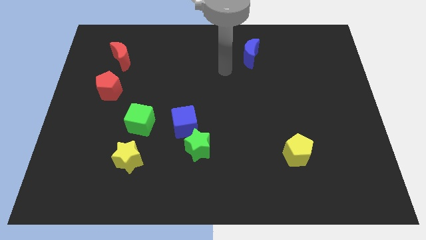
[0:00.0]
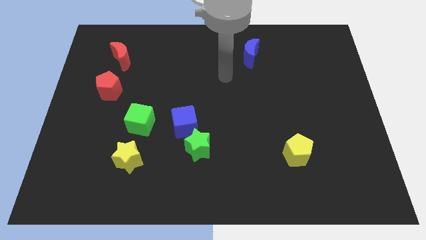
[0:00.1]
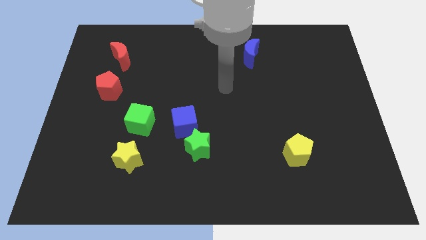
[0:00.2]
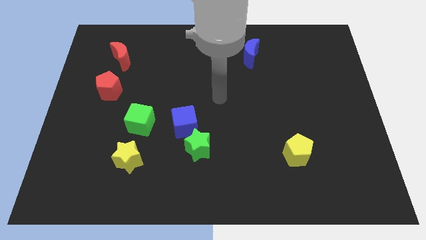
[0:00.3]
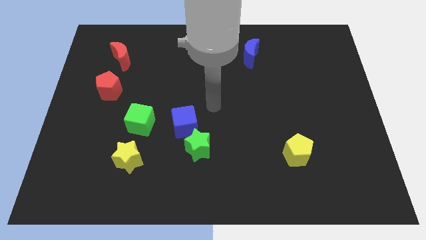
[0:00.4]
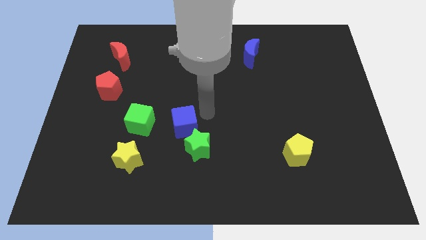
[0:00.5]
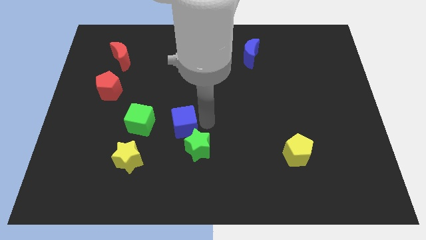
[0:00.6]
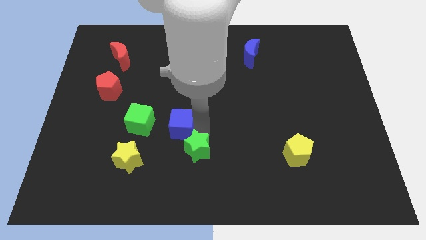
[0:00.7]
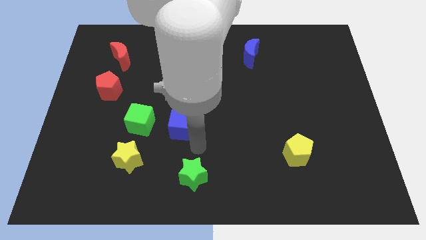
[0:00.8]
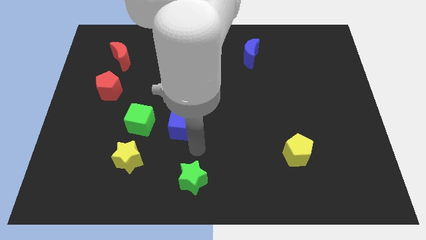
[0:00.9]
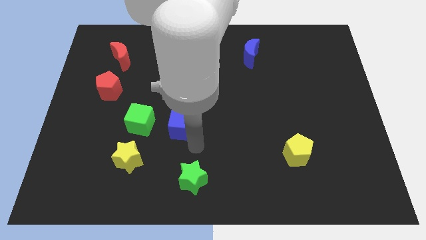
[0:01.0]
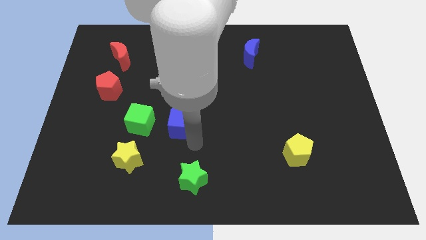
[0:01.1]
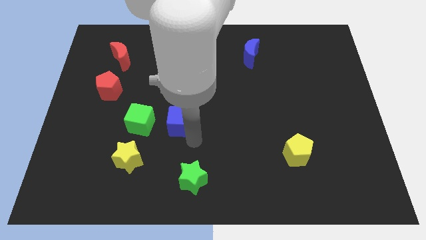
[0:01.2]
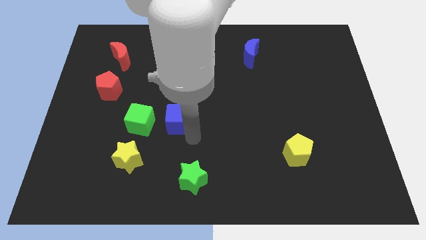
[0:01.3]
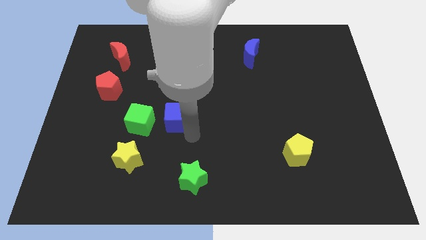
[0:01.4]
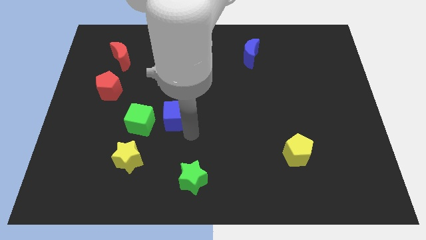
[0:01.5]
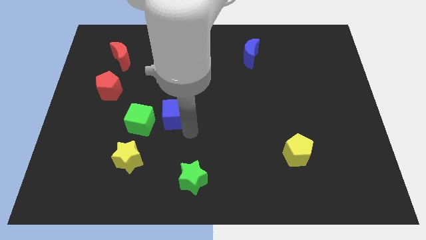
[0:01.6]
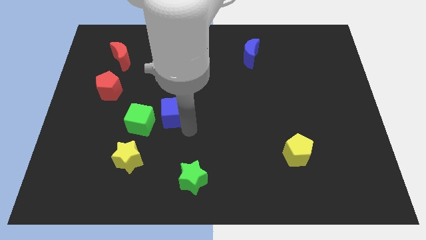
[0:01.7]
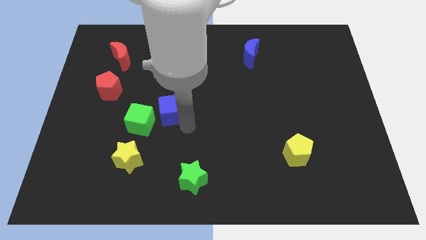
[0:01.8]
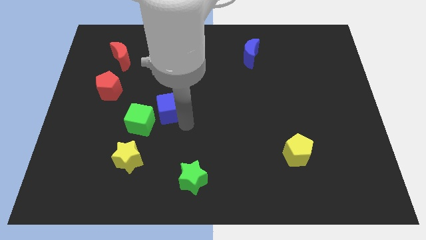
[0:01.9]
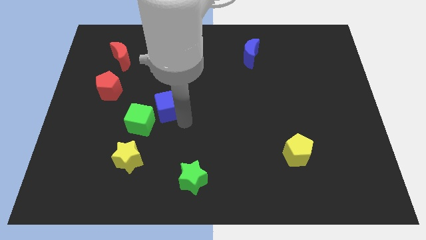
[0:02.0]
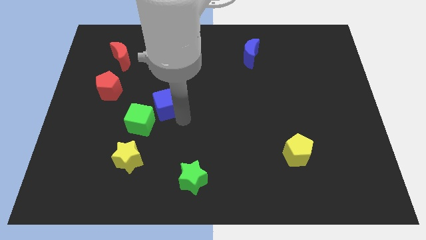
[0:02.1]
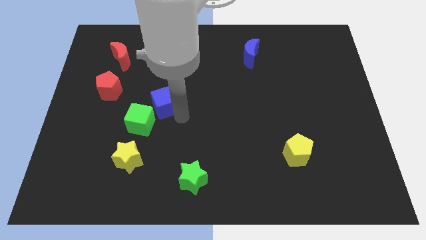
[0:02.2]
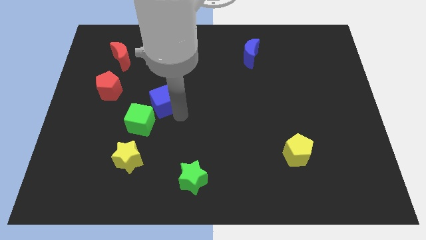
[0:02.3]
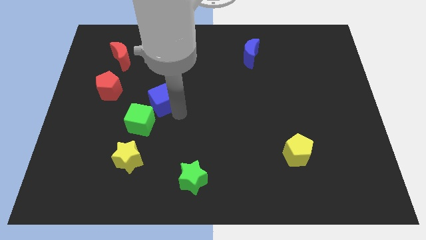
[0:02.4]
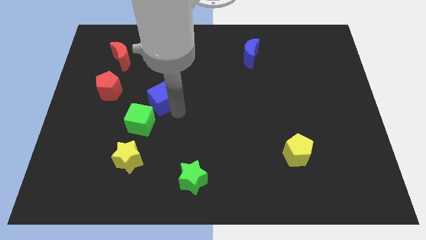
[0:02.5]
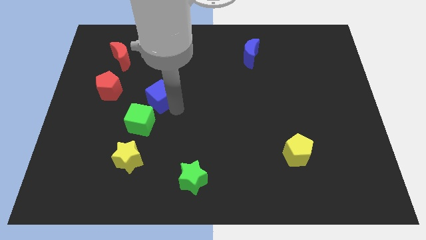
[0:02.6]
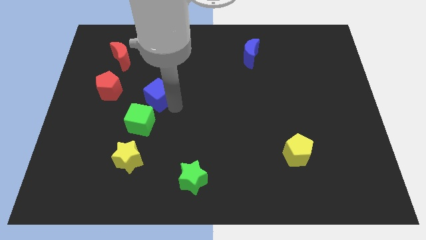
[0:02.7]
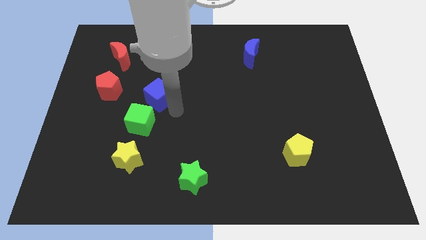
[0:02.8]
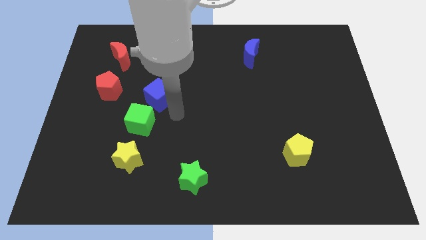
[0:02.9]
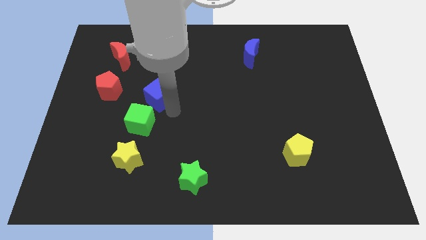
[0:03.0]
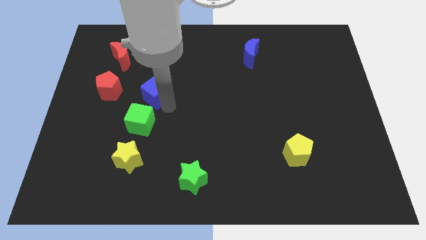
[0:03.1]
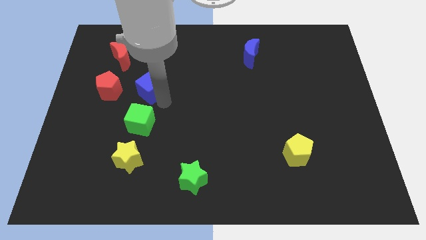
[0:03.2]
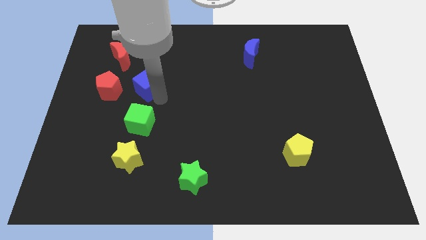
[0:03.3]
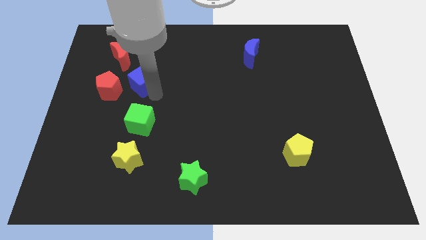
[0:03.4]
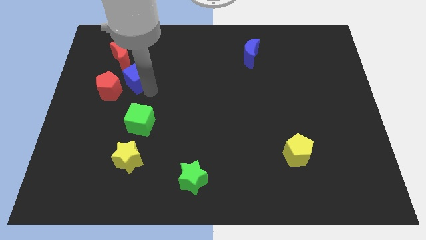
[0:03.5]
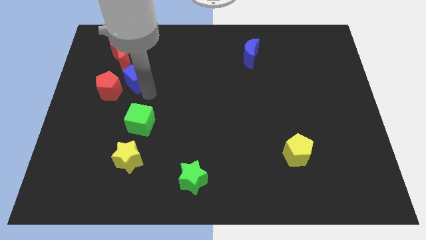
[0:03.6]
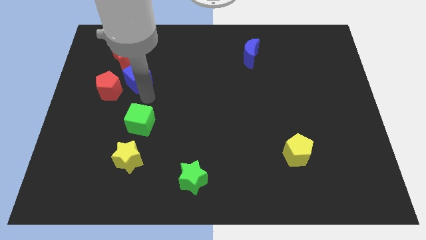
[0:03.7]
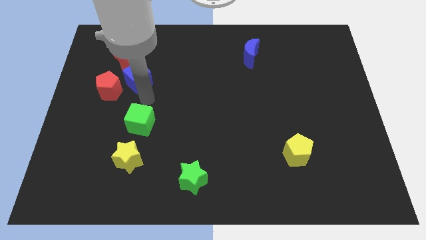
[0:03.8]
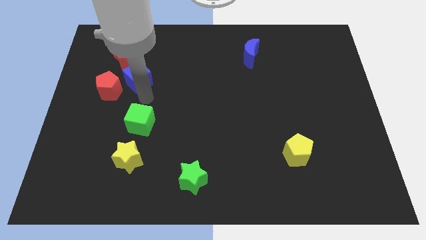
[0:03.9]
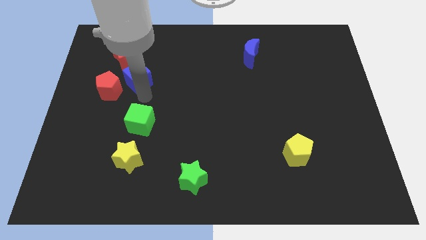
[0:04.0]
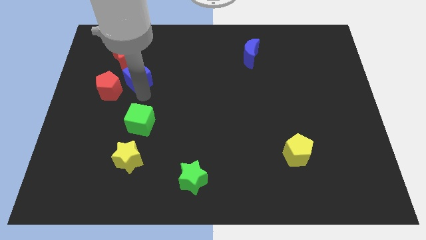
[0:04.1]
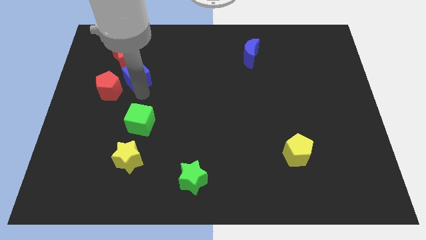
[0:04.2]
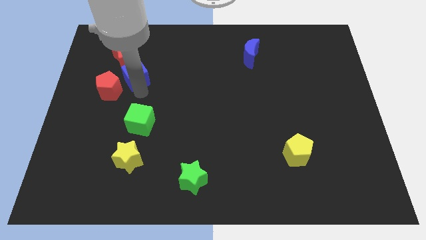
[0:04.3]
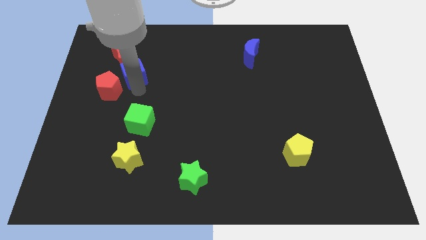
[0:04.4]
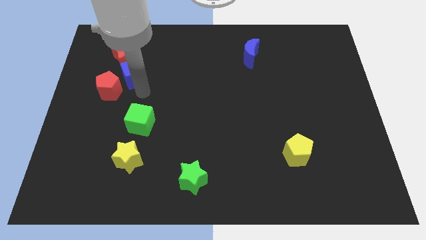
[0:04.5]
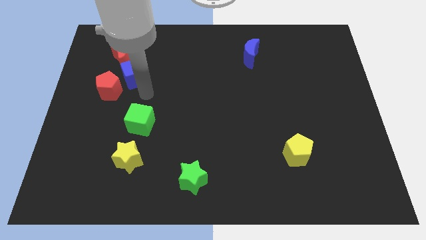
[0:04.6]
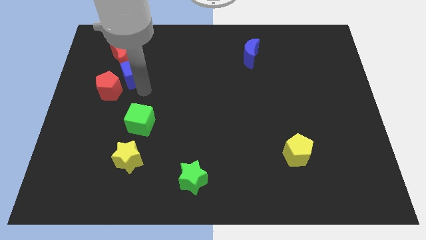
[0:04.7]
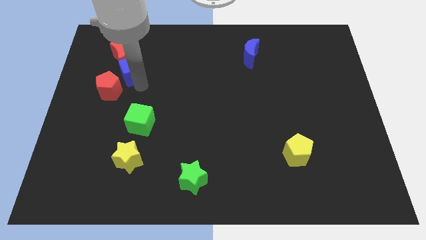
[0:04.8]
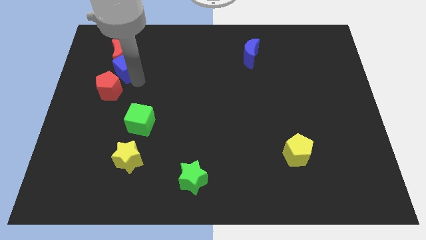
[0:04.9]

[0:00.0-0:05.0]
move the blue cube to the red moon

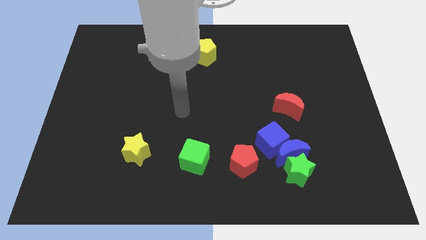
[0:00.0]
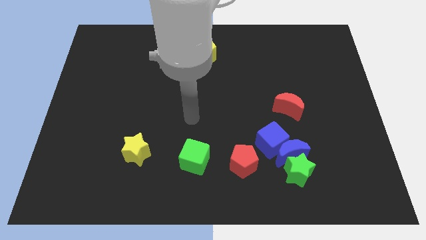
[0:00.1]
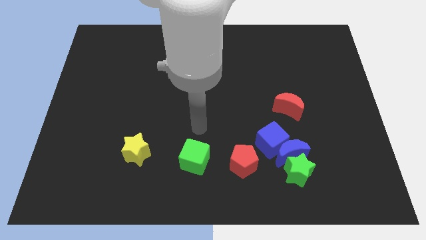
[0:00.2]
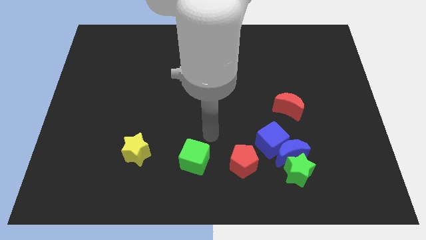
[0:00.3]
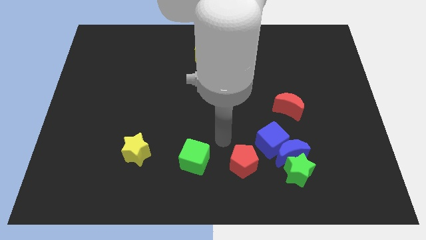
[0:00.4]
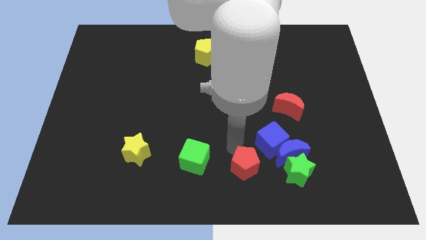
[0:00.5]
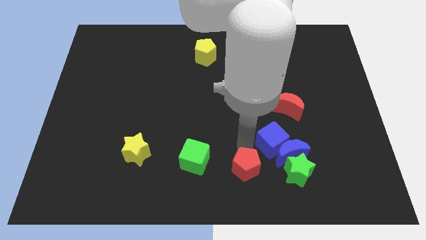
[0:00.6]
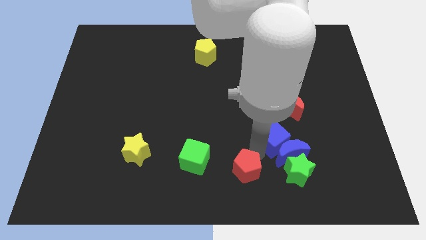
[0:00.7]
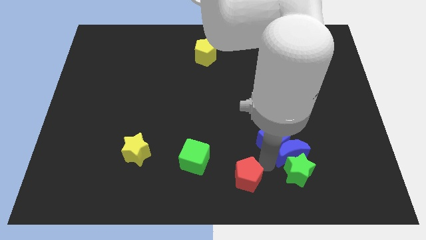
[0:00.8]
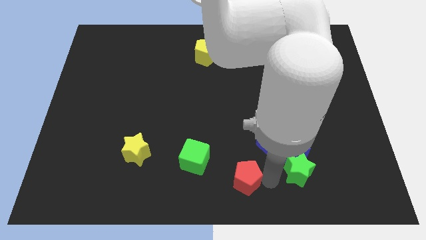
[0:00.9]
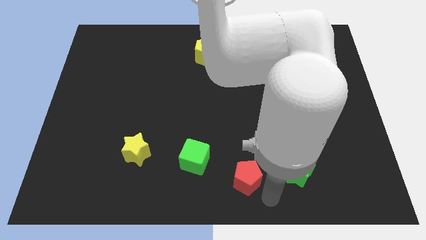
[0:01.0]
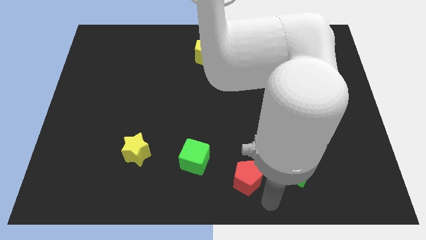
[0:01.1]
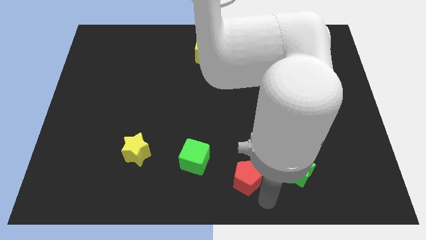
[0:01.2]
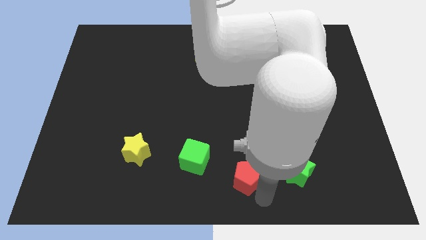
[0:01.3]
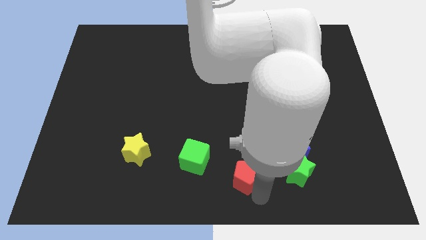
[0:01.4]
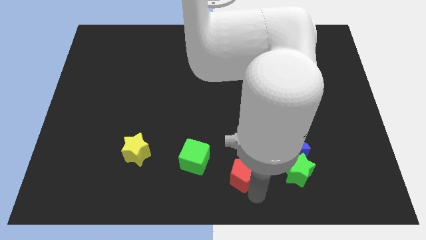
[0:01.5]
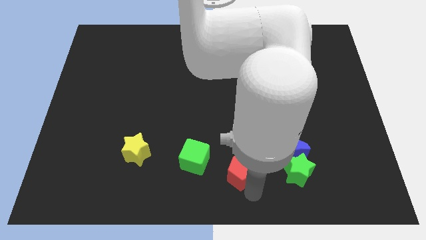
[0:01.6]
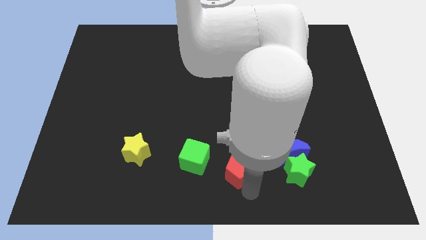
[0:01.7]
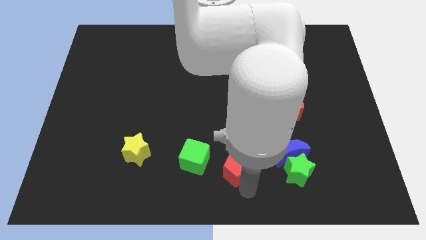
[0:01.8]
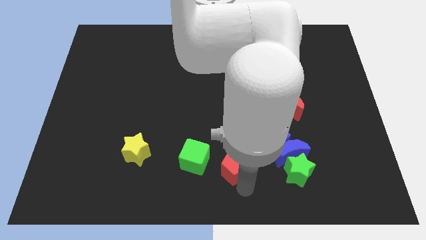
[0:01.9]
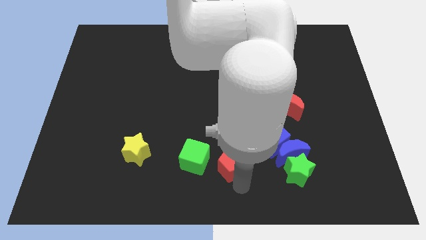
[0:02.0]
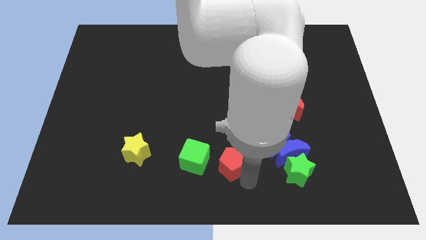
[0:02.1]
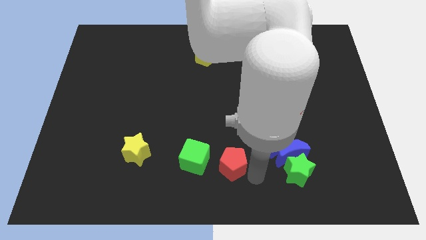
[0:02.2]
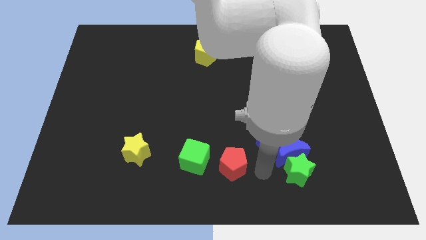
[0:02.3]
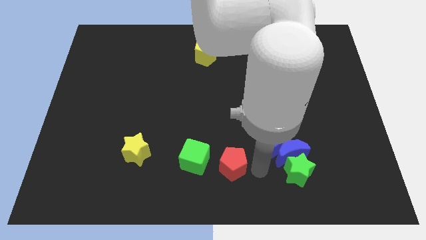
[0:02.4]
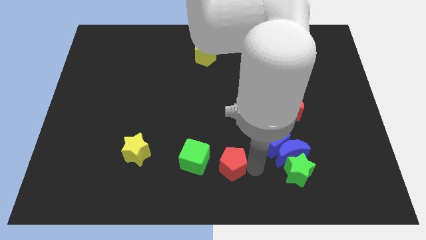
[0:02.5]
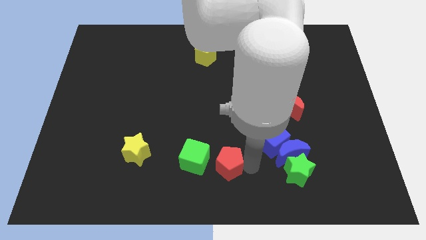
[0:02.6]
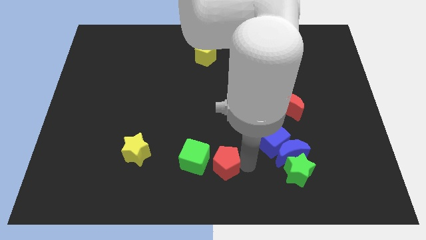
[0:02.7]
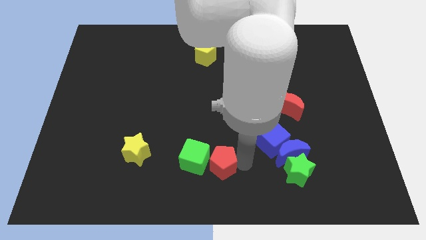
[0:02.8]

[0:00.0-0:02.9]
push the red pentagon towards the green cube
